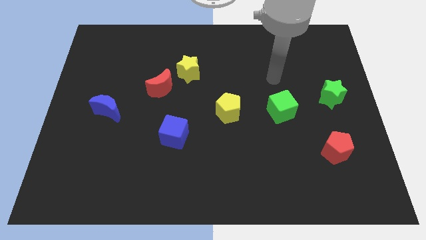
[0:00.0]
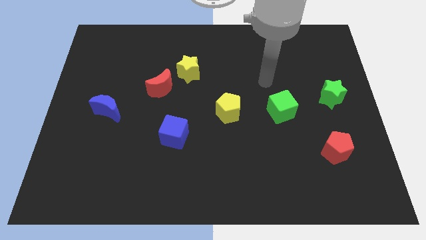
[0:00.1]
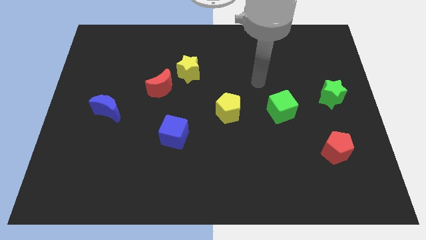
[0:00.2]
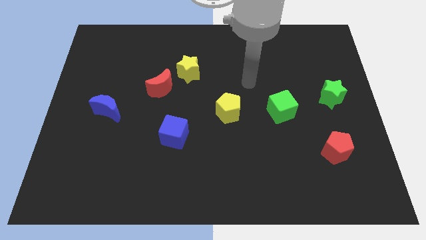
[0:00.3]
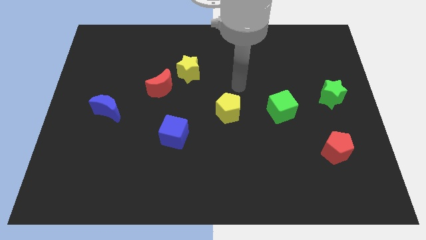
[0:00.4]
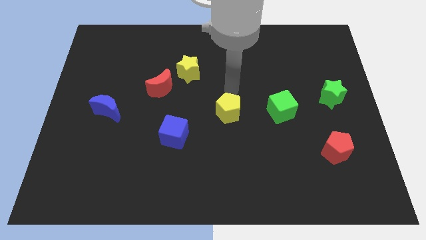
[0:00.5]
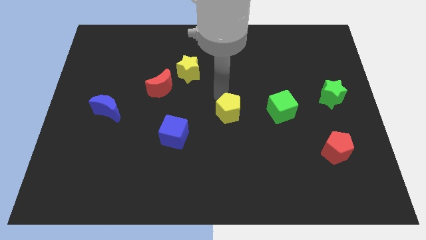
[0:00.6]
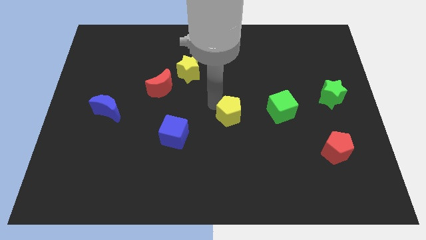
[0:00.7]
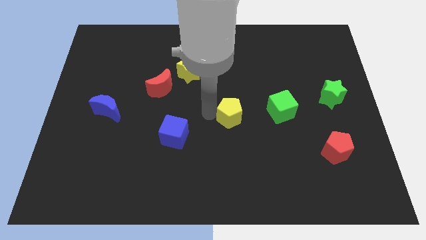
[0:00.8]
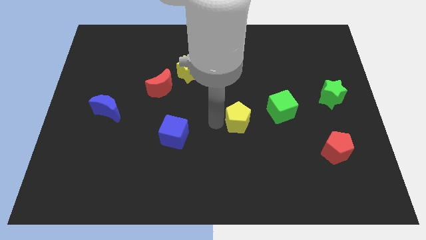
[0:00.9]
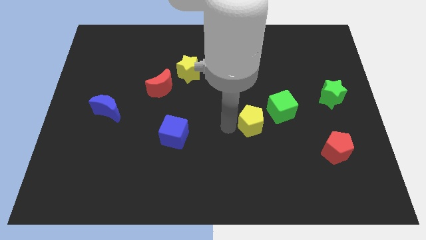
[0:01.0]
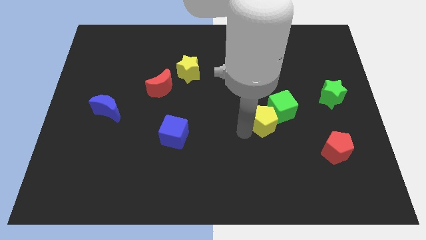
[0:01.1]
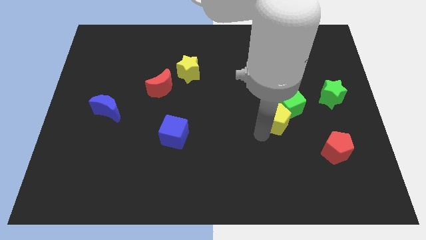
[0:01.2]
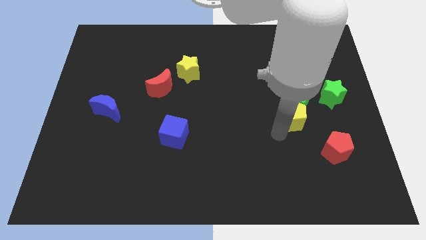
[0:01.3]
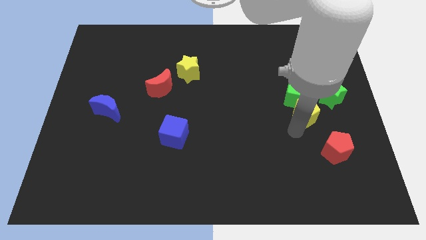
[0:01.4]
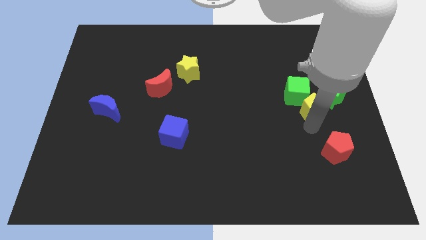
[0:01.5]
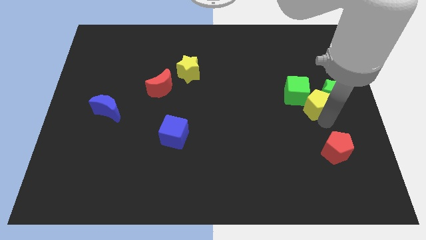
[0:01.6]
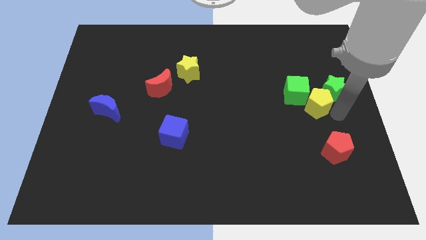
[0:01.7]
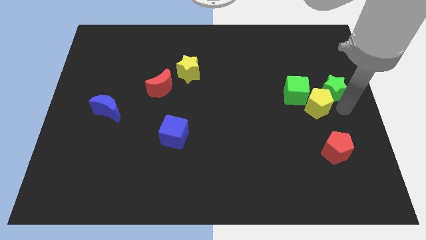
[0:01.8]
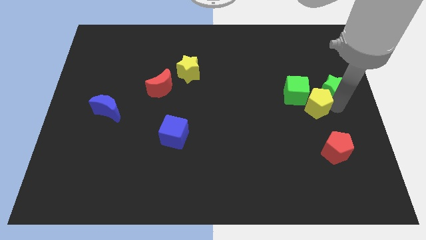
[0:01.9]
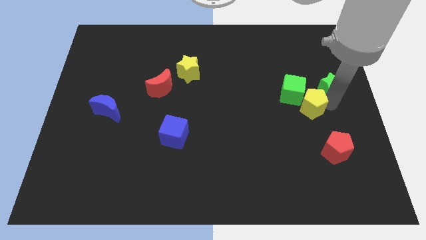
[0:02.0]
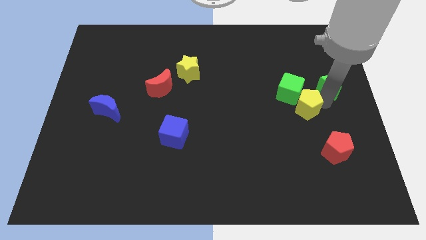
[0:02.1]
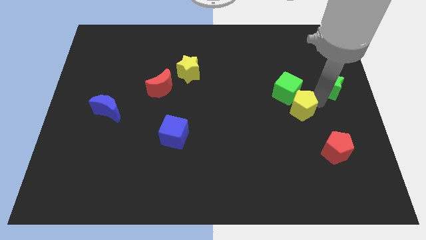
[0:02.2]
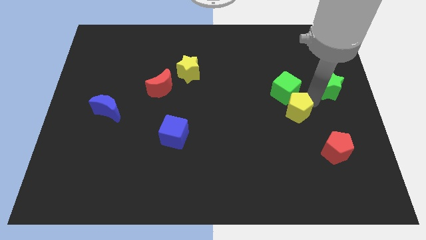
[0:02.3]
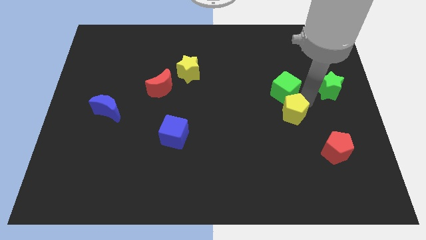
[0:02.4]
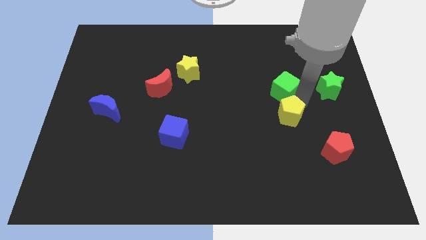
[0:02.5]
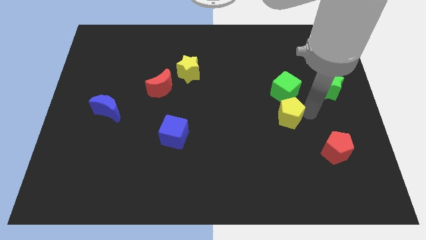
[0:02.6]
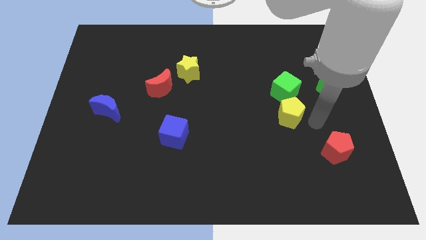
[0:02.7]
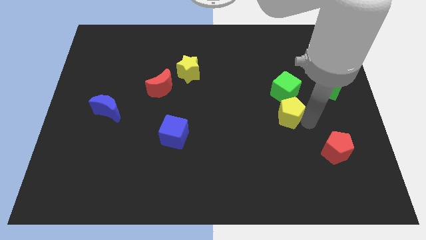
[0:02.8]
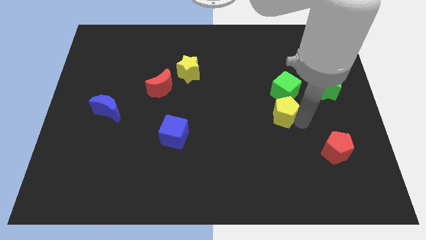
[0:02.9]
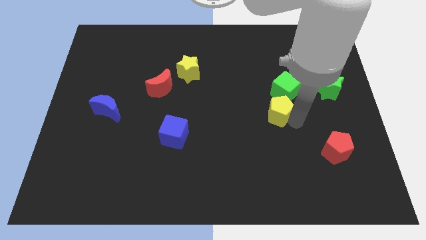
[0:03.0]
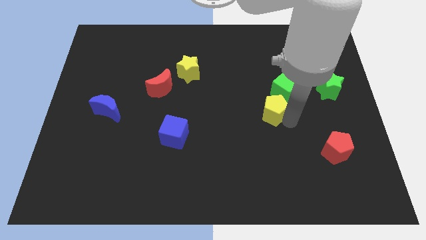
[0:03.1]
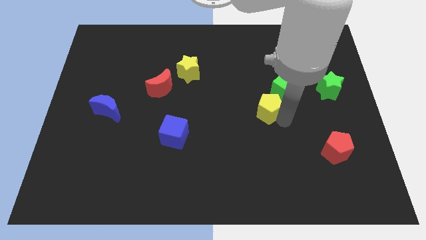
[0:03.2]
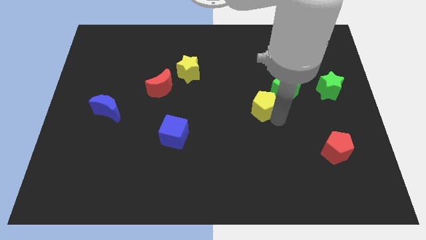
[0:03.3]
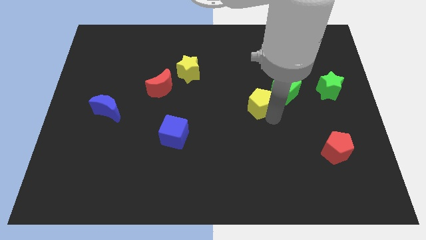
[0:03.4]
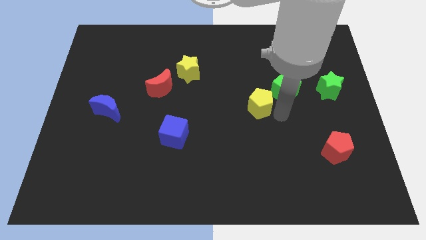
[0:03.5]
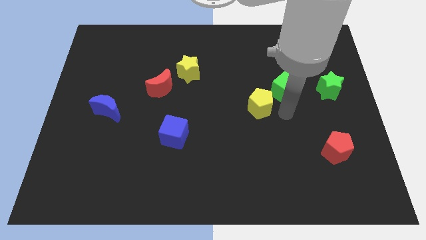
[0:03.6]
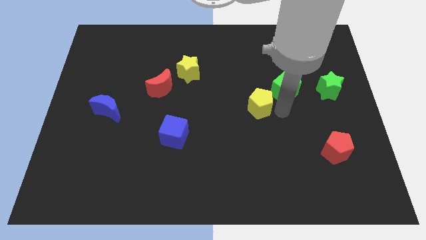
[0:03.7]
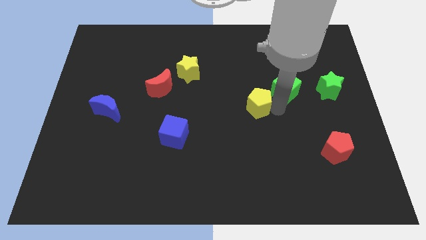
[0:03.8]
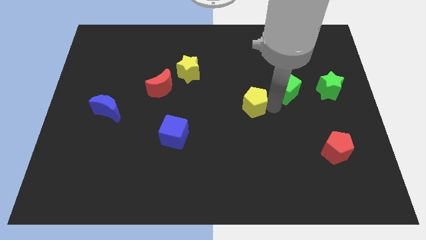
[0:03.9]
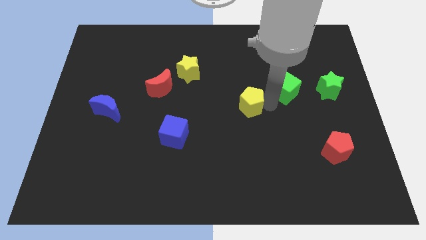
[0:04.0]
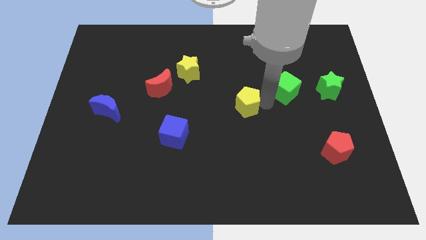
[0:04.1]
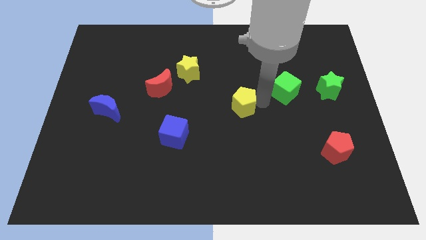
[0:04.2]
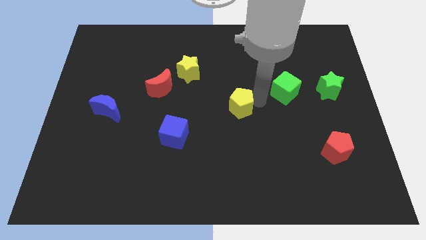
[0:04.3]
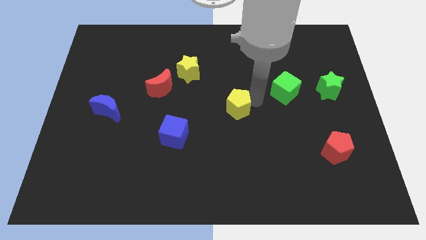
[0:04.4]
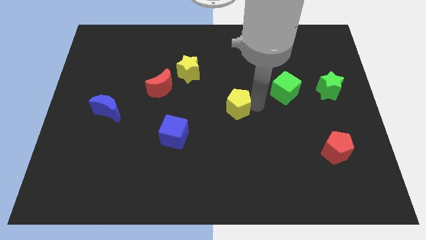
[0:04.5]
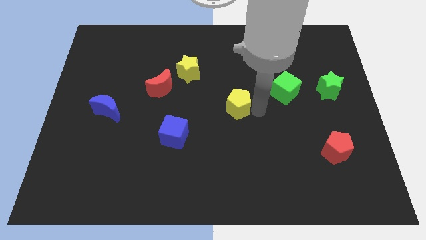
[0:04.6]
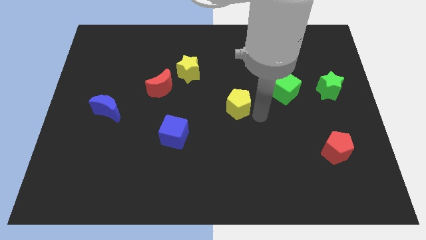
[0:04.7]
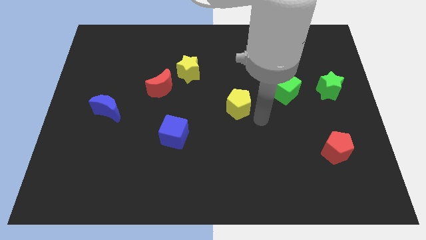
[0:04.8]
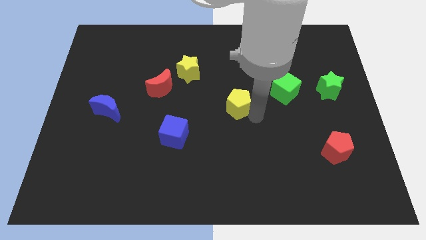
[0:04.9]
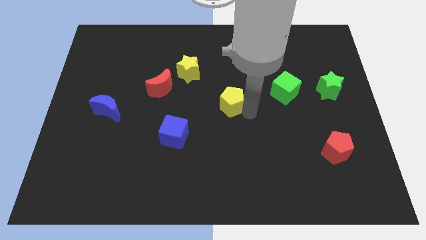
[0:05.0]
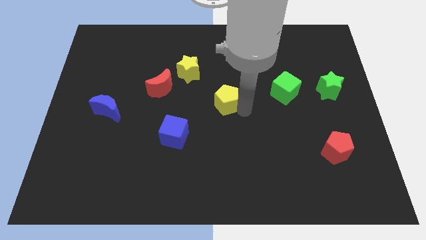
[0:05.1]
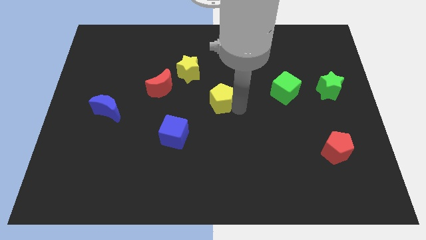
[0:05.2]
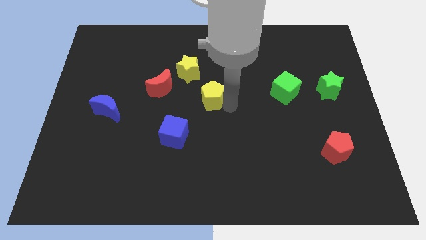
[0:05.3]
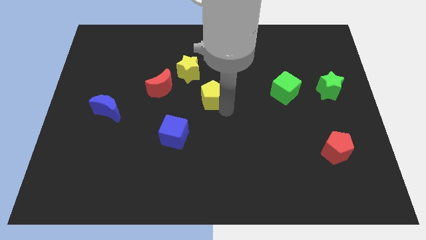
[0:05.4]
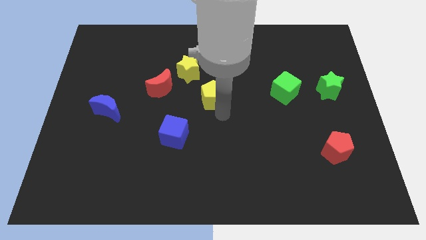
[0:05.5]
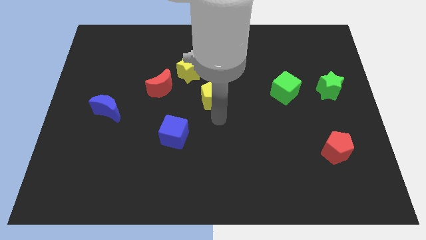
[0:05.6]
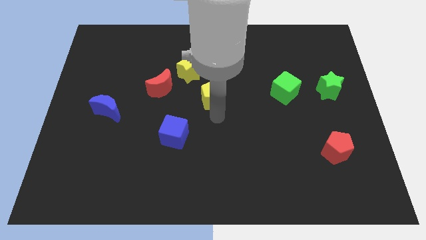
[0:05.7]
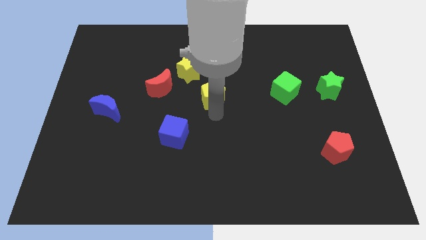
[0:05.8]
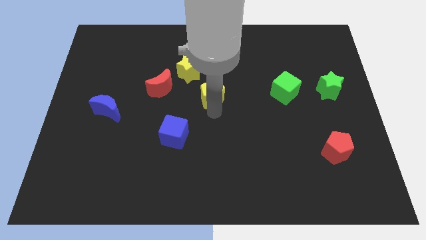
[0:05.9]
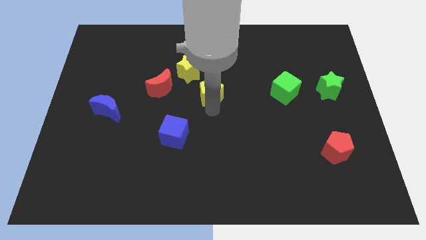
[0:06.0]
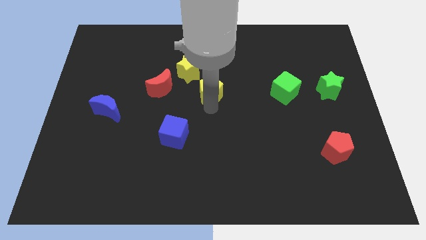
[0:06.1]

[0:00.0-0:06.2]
push the yellow pentagon up and left somewhat

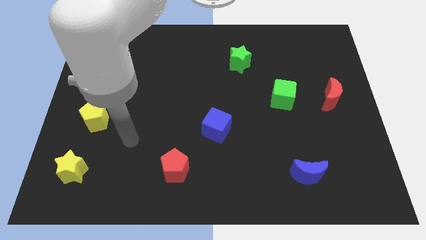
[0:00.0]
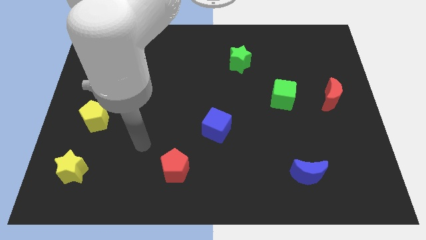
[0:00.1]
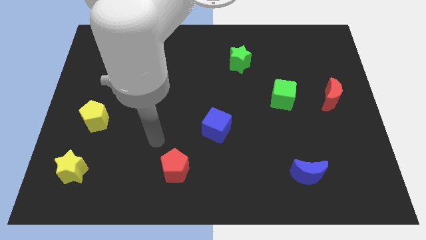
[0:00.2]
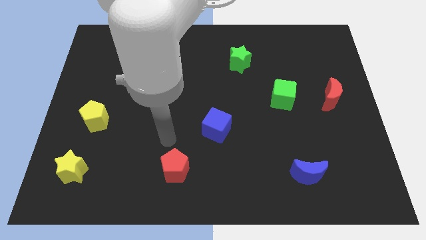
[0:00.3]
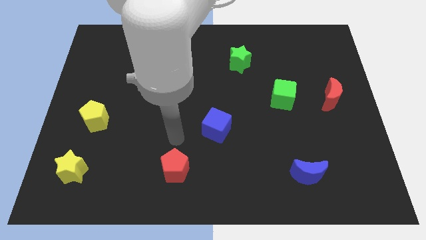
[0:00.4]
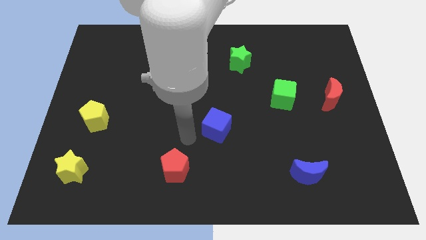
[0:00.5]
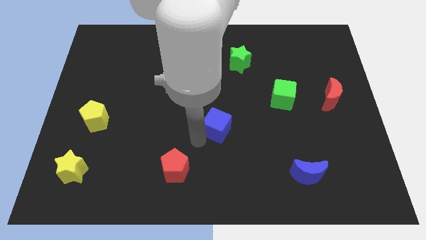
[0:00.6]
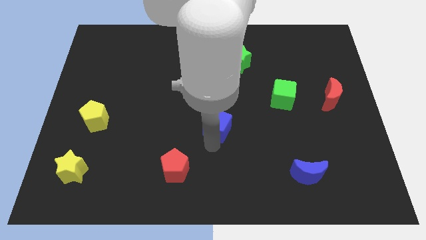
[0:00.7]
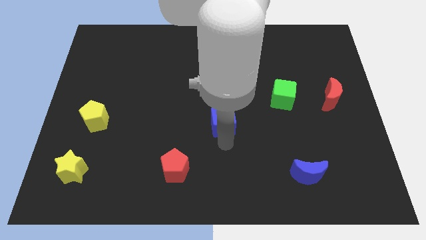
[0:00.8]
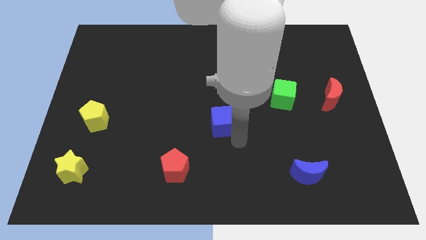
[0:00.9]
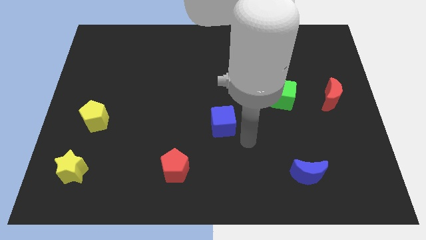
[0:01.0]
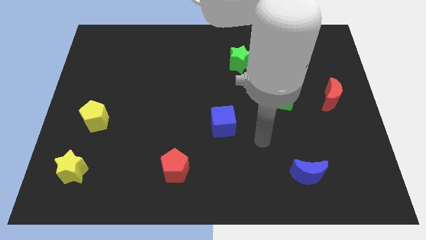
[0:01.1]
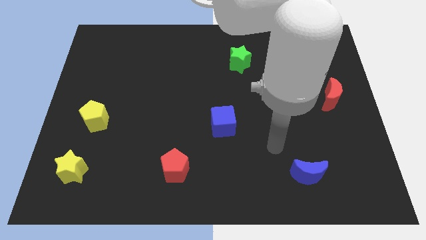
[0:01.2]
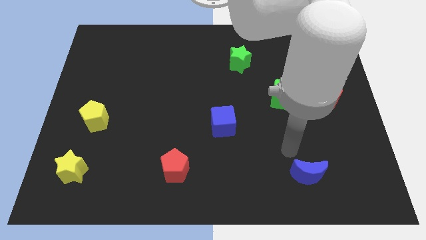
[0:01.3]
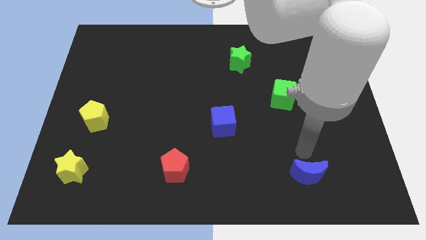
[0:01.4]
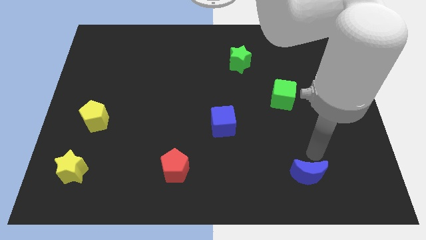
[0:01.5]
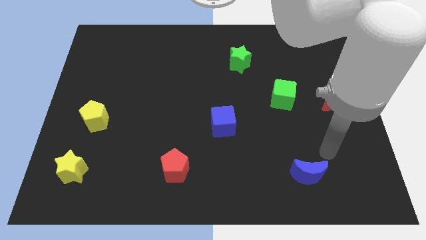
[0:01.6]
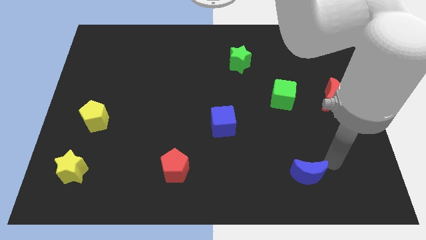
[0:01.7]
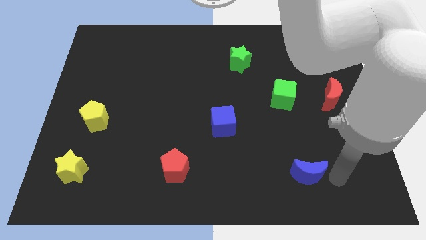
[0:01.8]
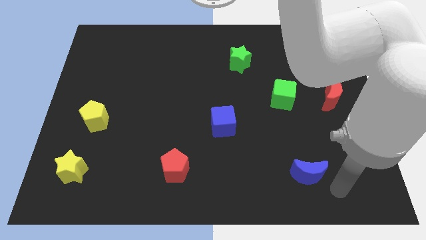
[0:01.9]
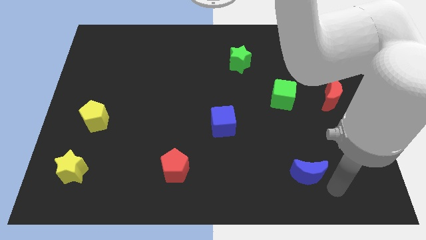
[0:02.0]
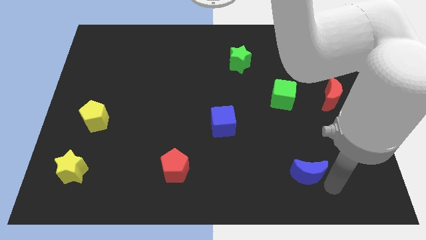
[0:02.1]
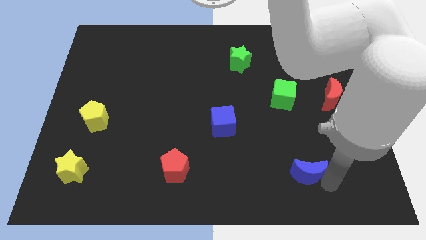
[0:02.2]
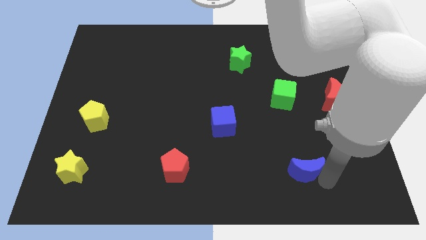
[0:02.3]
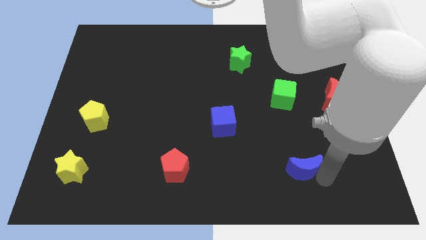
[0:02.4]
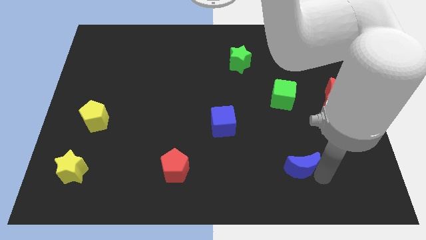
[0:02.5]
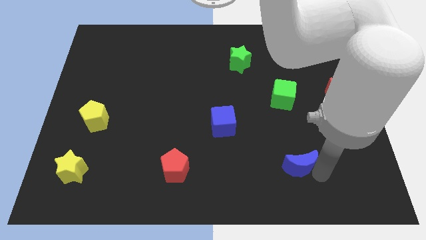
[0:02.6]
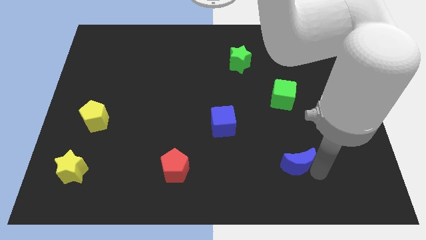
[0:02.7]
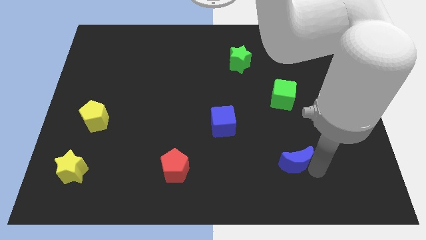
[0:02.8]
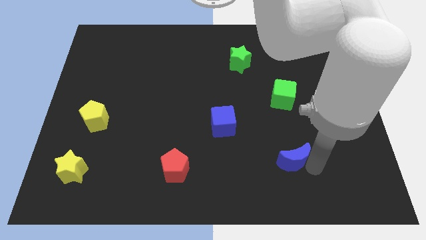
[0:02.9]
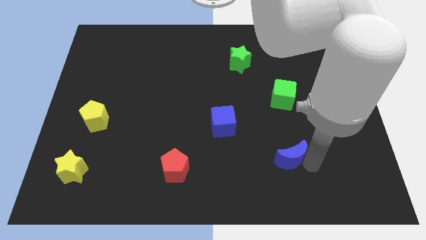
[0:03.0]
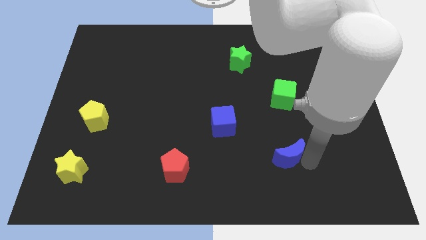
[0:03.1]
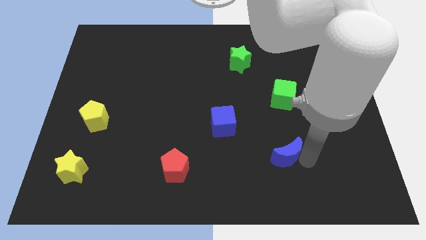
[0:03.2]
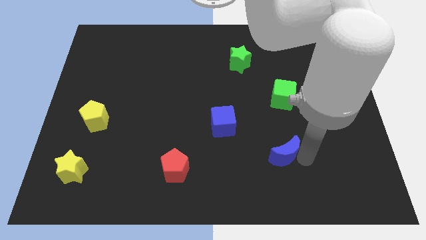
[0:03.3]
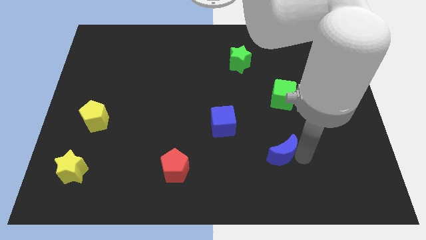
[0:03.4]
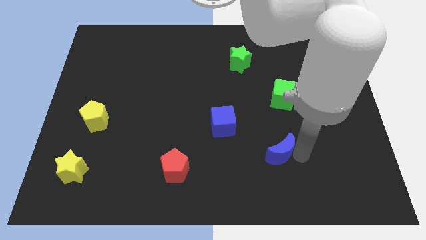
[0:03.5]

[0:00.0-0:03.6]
slightly push the blue moon upwards and left diagonally
